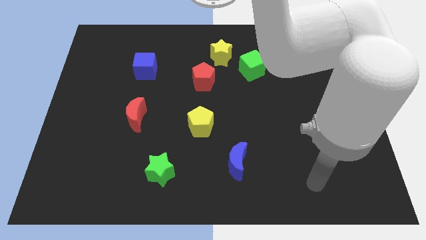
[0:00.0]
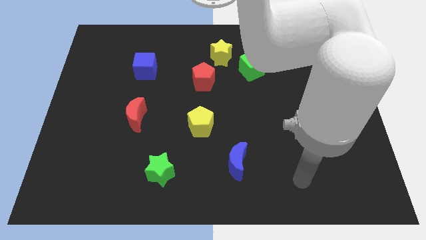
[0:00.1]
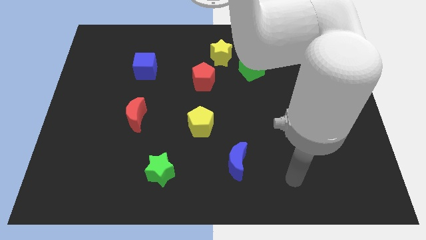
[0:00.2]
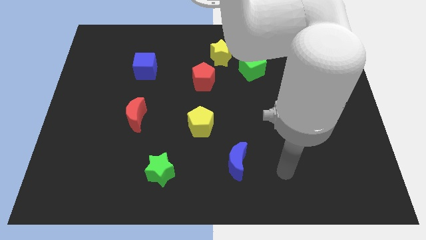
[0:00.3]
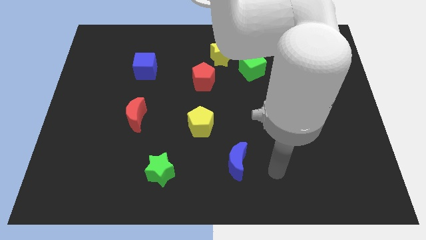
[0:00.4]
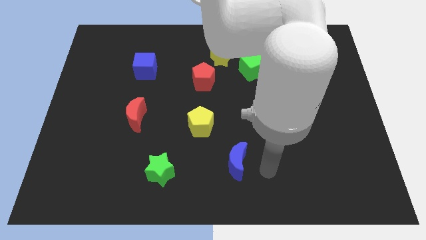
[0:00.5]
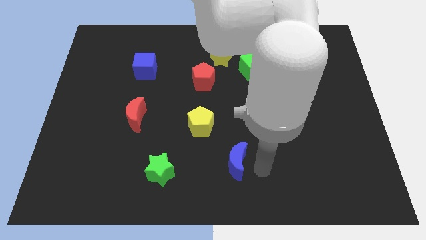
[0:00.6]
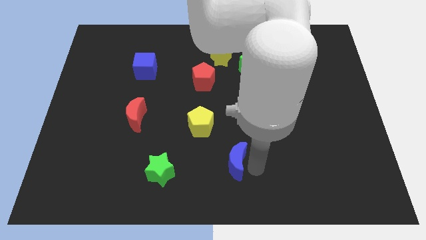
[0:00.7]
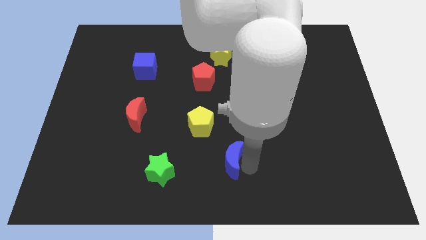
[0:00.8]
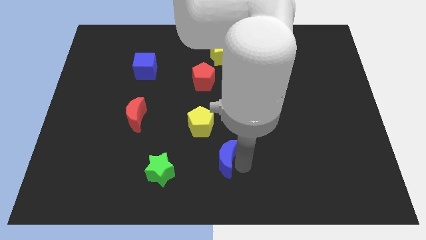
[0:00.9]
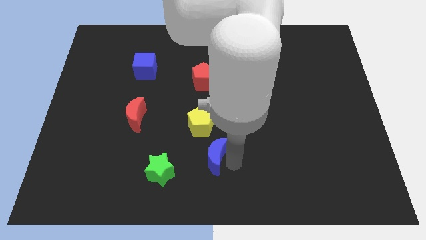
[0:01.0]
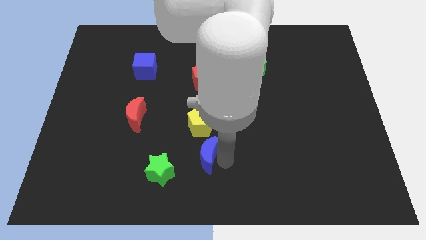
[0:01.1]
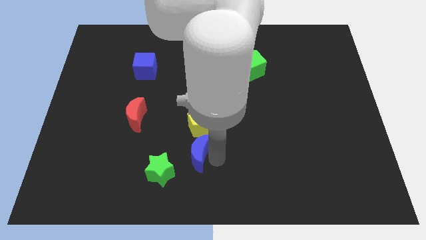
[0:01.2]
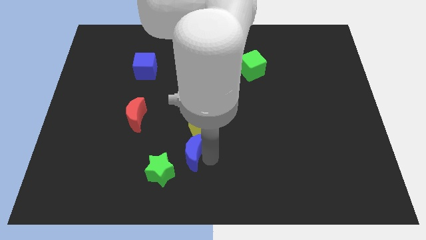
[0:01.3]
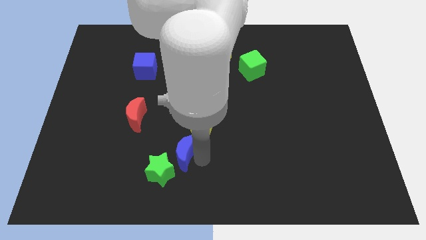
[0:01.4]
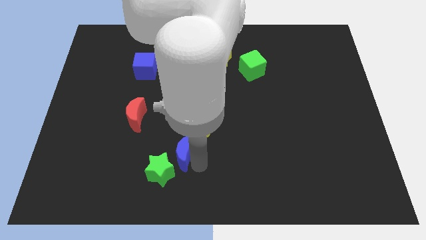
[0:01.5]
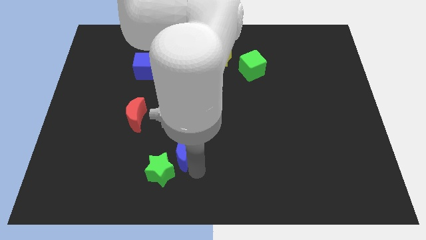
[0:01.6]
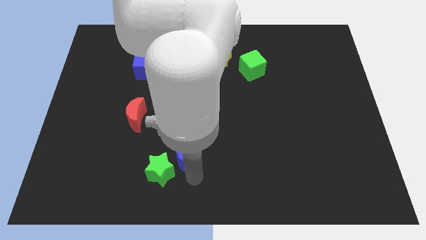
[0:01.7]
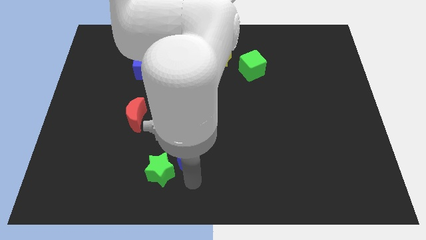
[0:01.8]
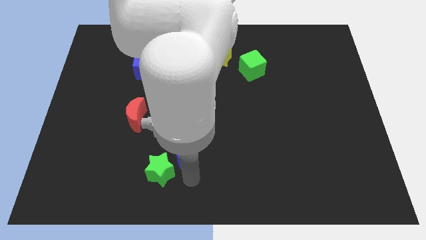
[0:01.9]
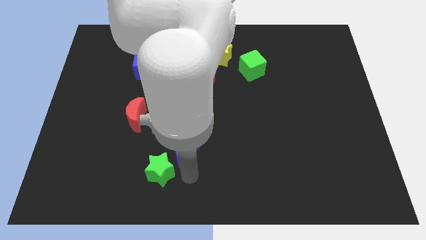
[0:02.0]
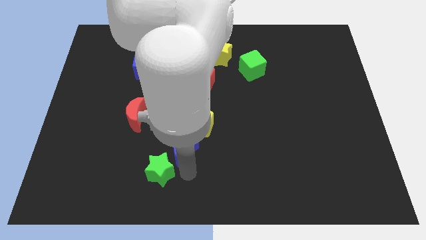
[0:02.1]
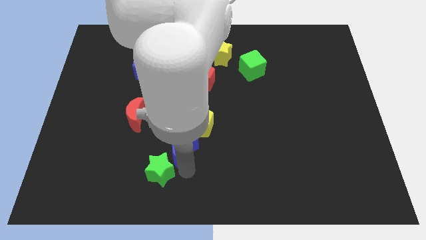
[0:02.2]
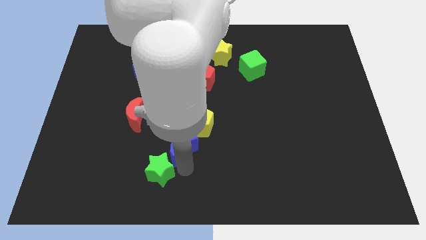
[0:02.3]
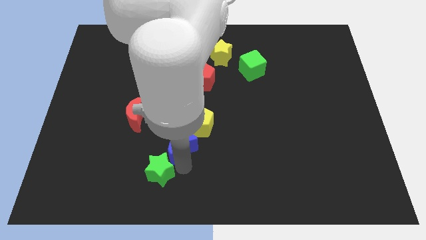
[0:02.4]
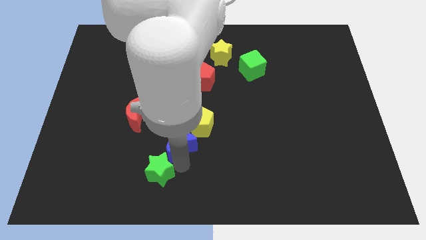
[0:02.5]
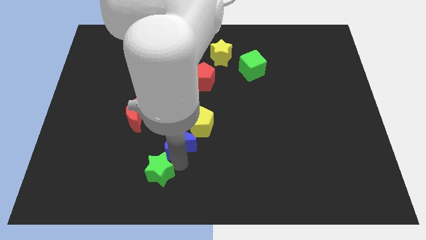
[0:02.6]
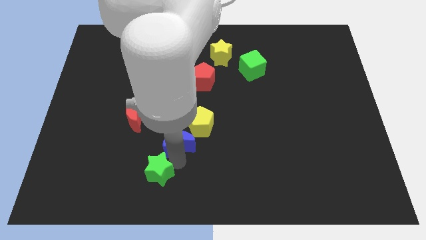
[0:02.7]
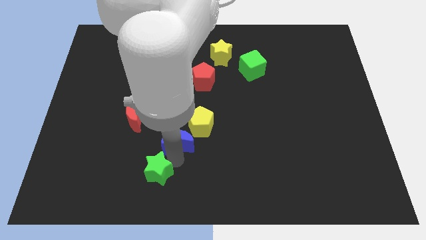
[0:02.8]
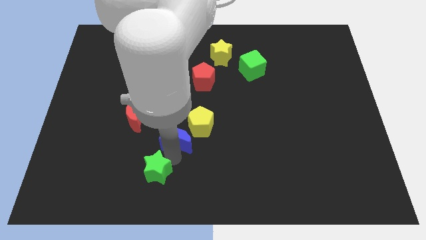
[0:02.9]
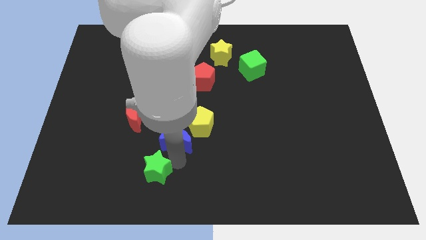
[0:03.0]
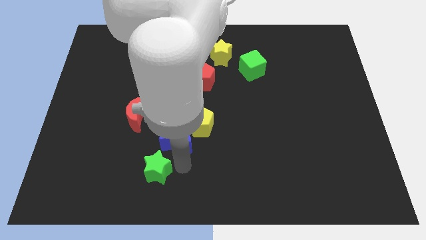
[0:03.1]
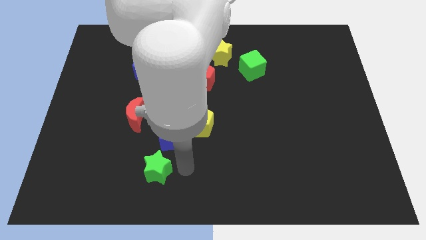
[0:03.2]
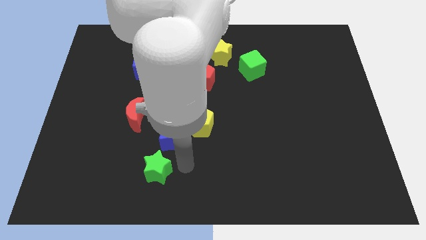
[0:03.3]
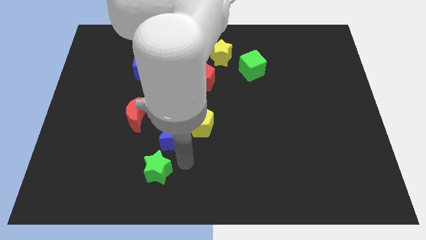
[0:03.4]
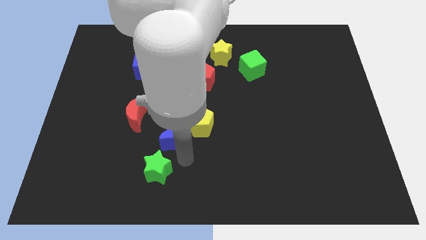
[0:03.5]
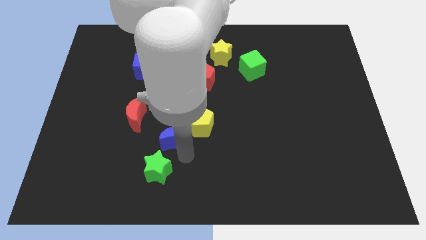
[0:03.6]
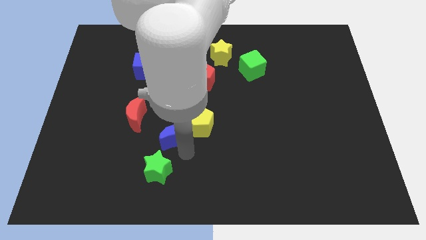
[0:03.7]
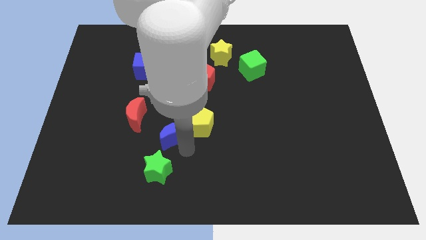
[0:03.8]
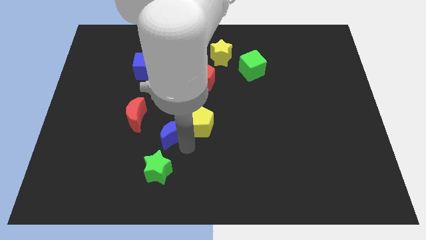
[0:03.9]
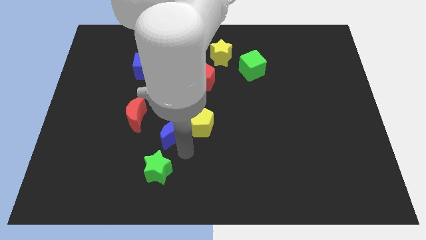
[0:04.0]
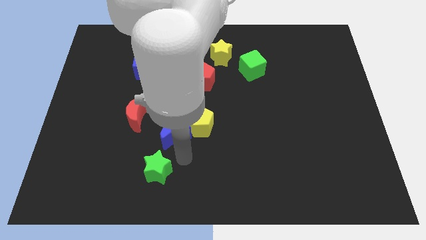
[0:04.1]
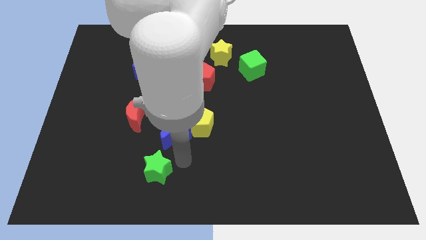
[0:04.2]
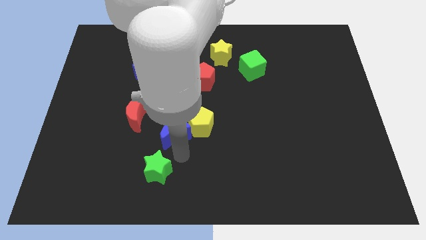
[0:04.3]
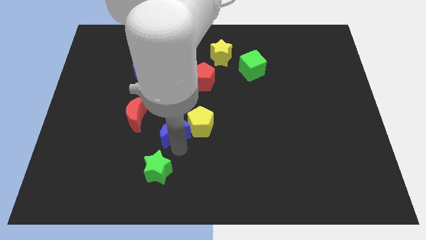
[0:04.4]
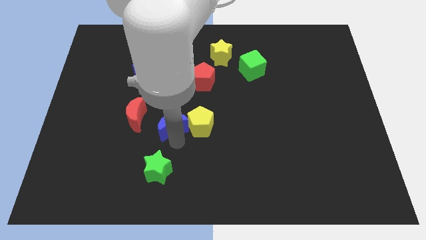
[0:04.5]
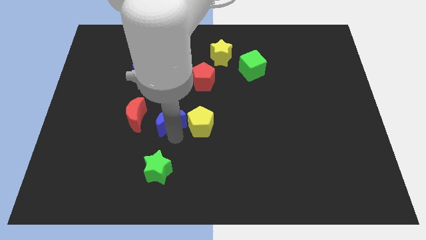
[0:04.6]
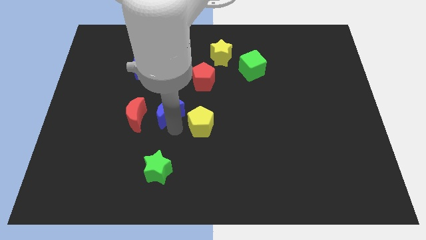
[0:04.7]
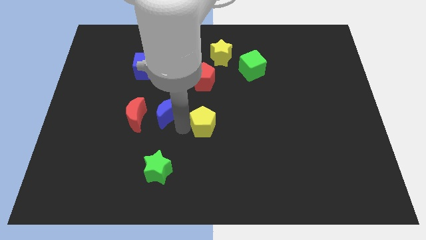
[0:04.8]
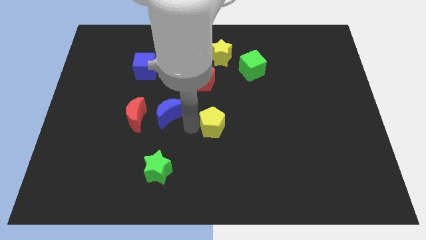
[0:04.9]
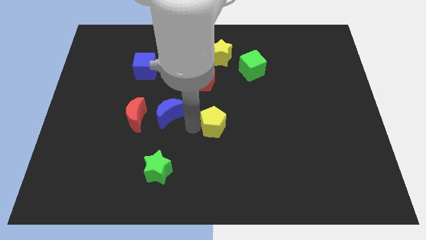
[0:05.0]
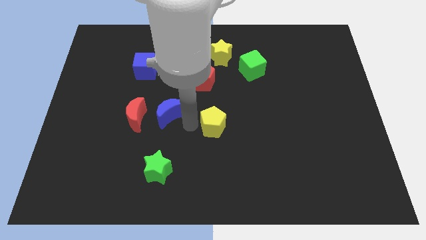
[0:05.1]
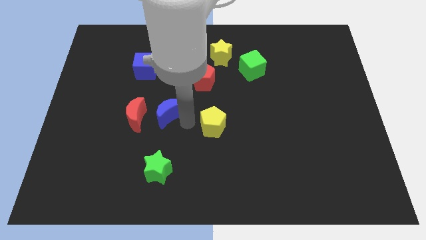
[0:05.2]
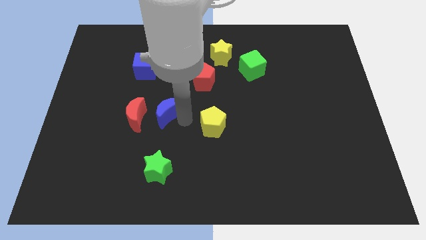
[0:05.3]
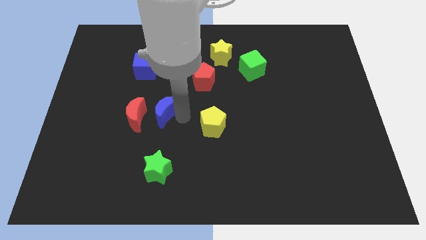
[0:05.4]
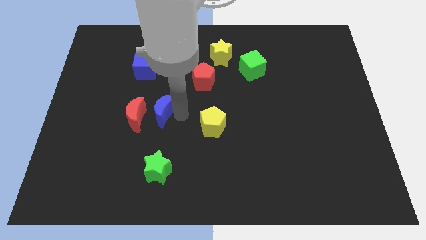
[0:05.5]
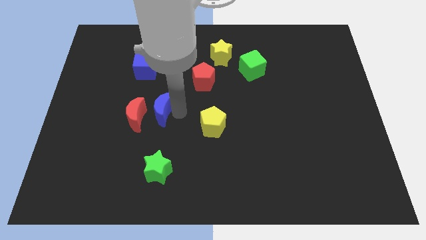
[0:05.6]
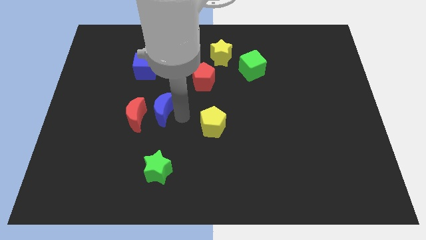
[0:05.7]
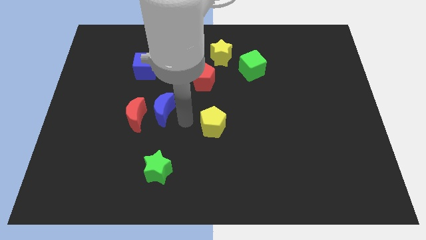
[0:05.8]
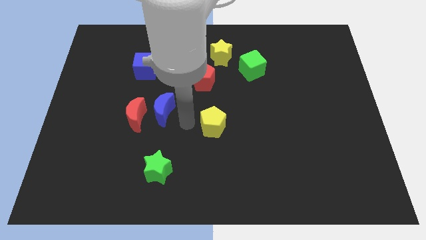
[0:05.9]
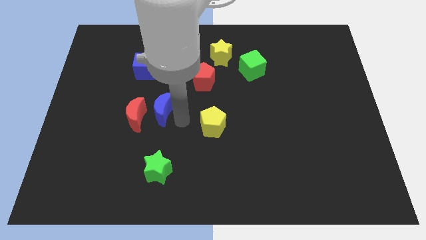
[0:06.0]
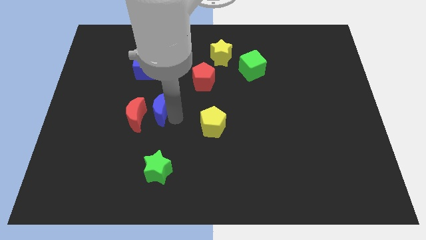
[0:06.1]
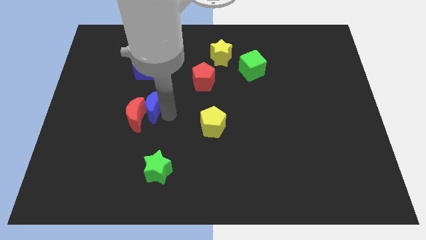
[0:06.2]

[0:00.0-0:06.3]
put the blue moon below the blue cube
